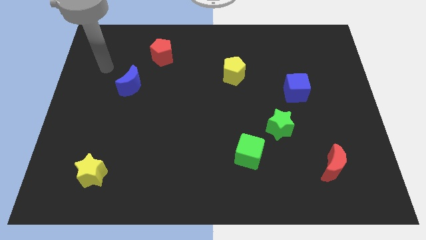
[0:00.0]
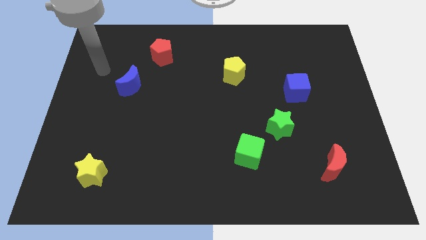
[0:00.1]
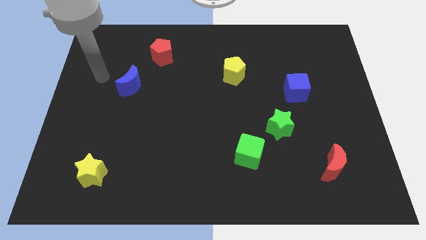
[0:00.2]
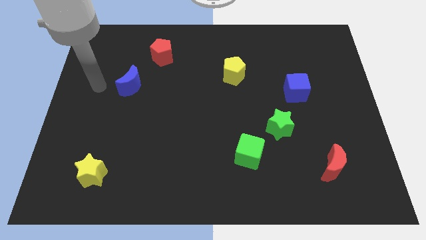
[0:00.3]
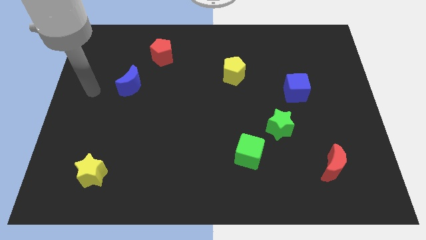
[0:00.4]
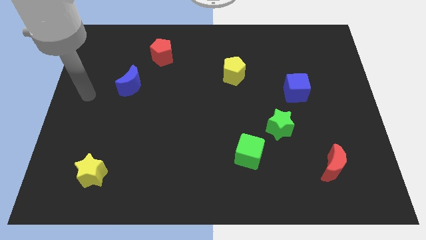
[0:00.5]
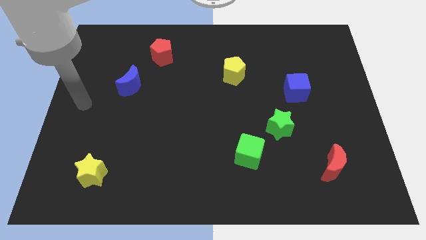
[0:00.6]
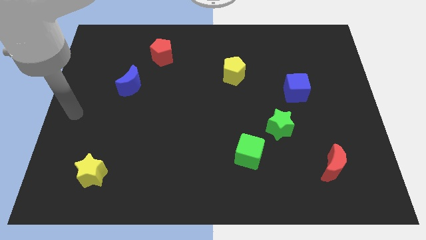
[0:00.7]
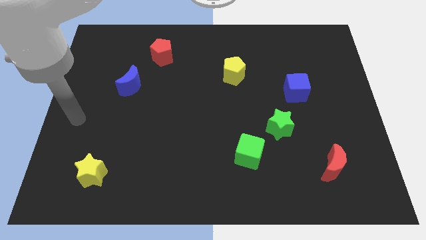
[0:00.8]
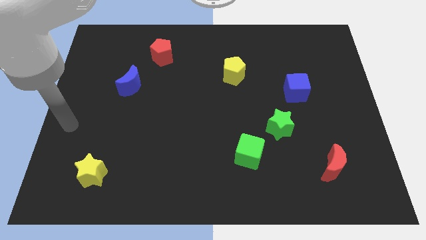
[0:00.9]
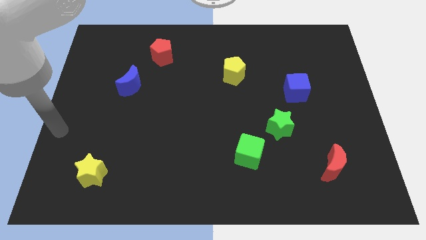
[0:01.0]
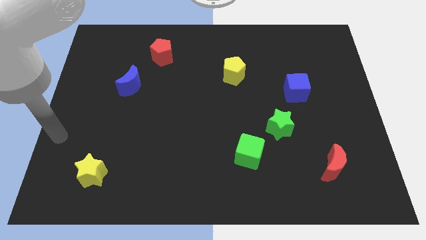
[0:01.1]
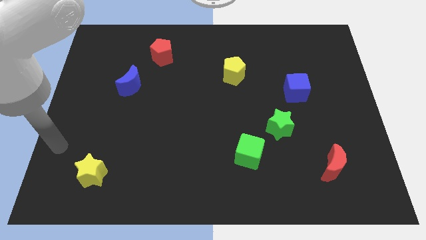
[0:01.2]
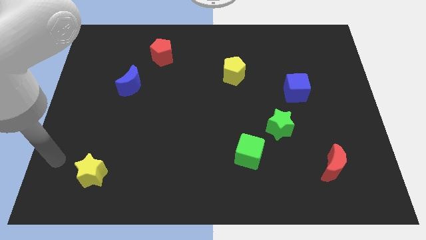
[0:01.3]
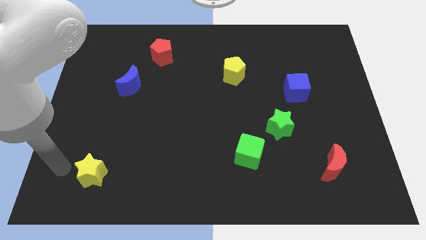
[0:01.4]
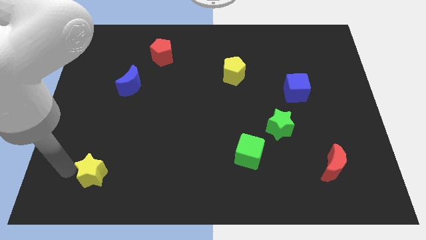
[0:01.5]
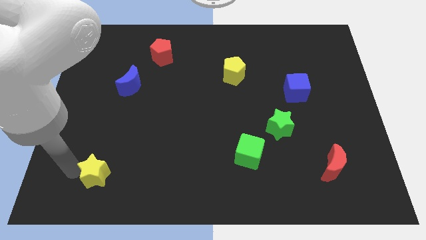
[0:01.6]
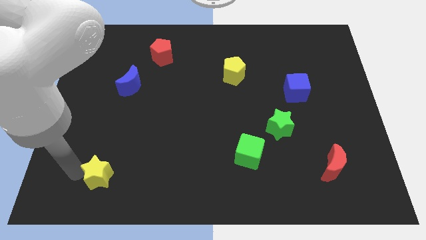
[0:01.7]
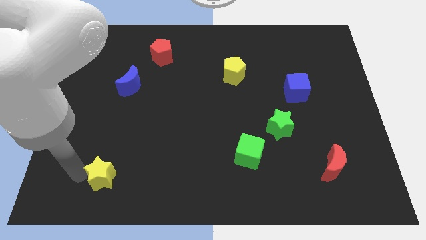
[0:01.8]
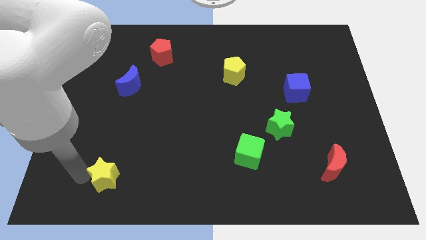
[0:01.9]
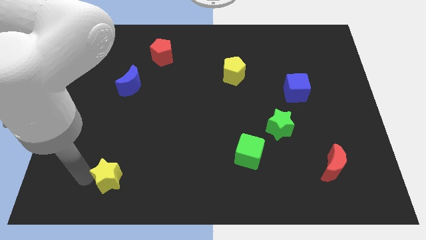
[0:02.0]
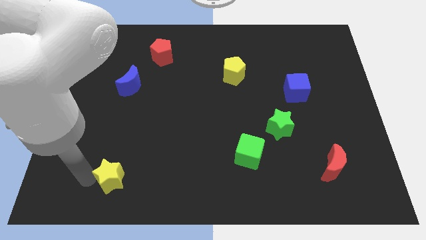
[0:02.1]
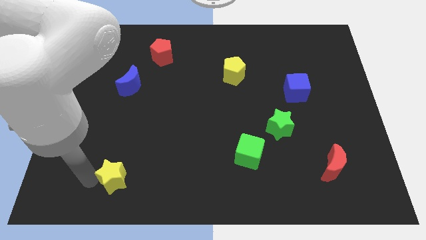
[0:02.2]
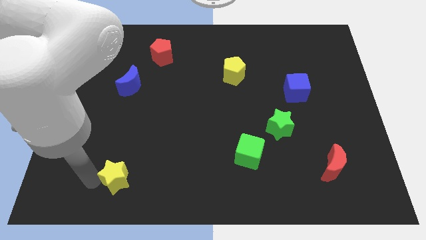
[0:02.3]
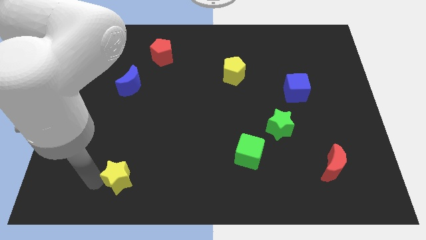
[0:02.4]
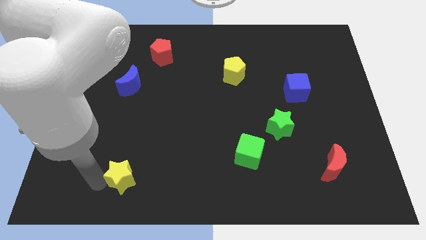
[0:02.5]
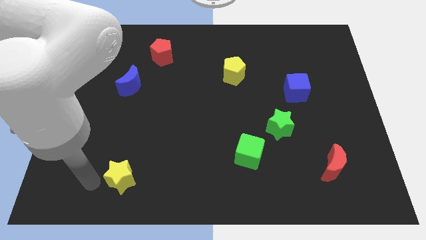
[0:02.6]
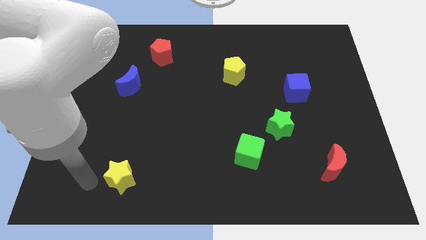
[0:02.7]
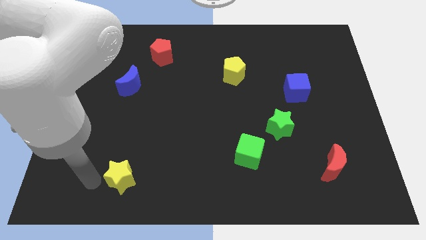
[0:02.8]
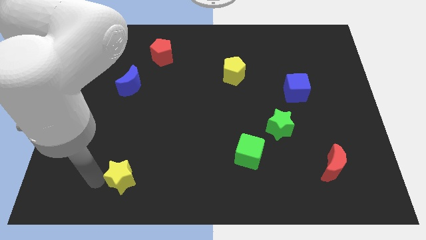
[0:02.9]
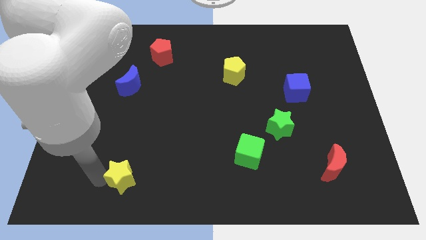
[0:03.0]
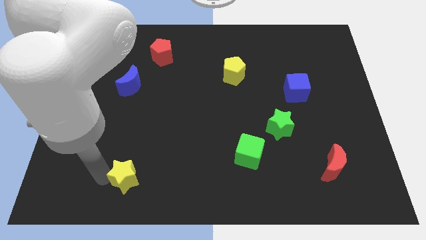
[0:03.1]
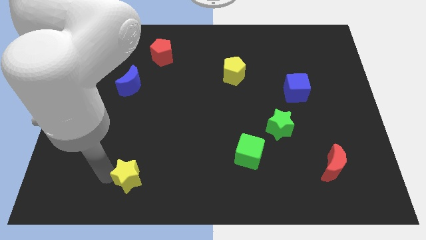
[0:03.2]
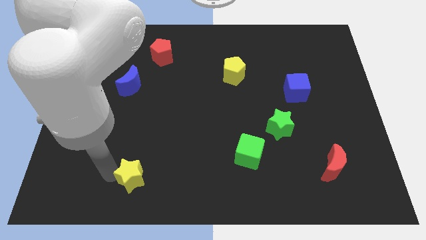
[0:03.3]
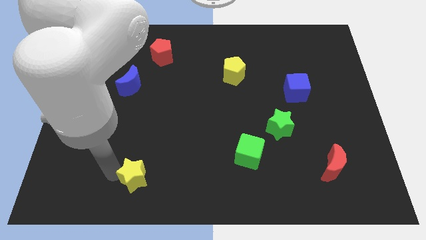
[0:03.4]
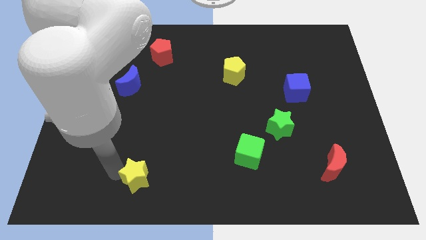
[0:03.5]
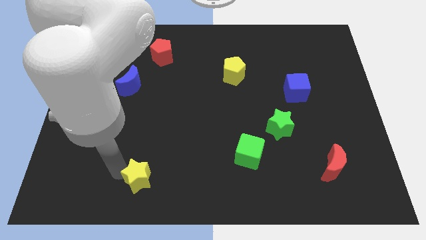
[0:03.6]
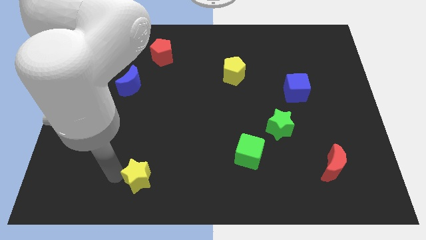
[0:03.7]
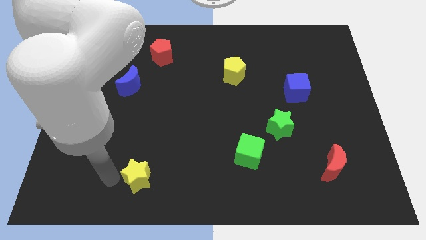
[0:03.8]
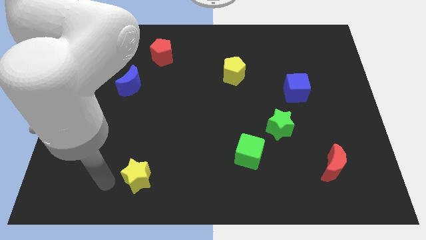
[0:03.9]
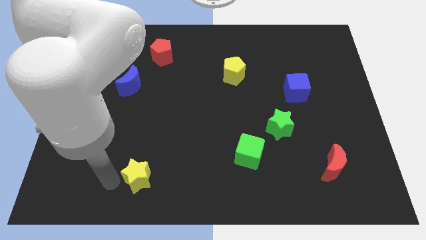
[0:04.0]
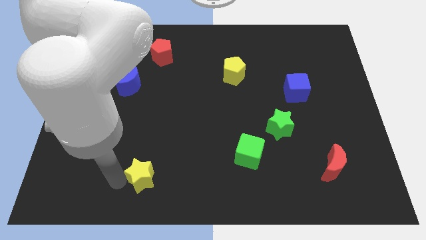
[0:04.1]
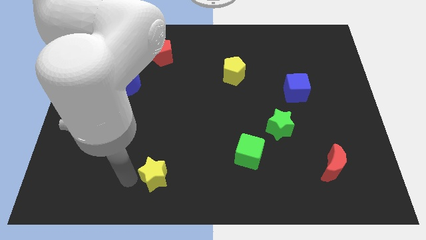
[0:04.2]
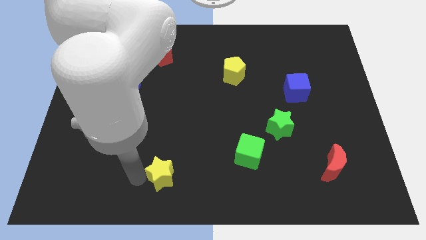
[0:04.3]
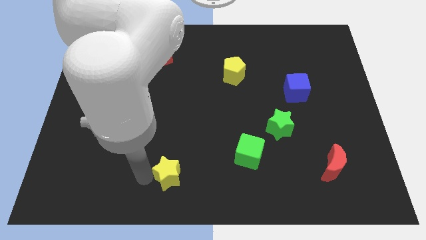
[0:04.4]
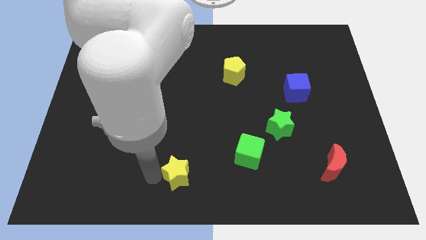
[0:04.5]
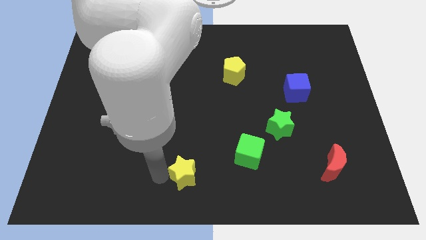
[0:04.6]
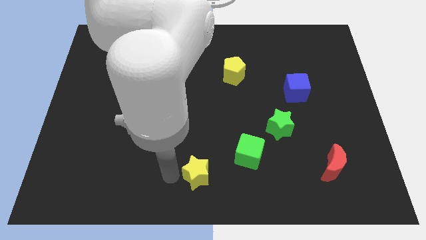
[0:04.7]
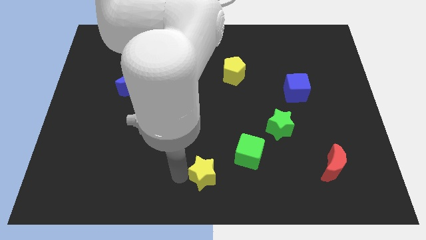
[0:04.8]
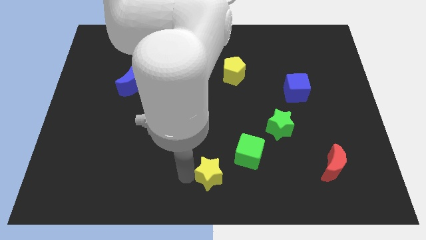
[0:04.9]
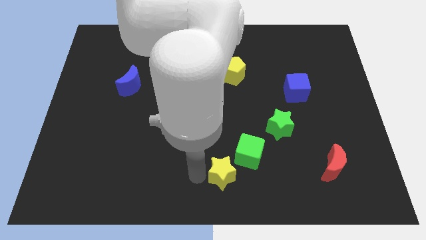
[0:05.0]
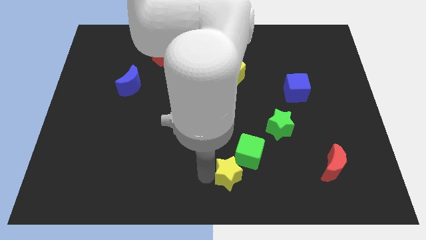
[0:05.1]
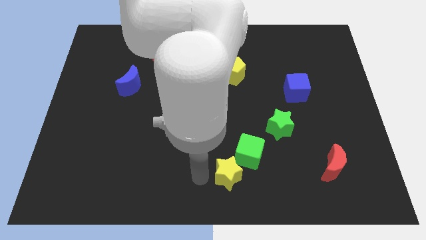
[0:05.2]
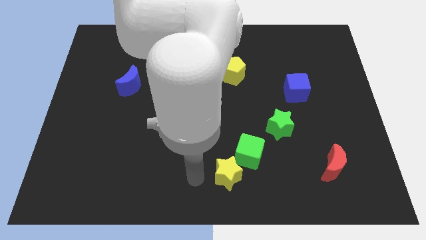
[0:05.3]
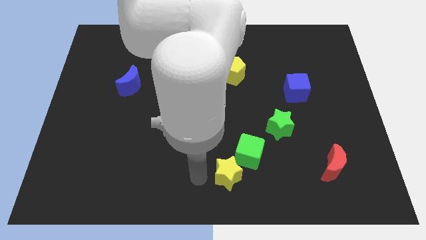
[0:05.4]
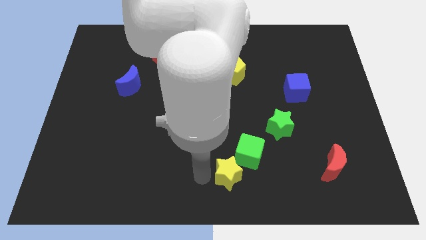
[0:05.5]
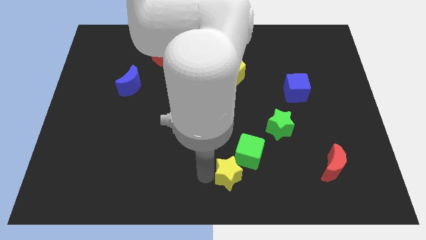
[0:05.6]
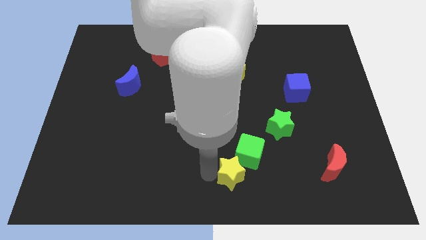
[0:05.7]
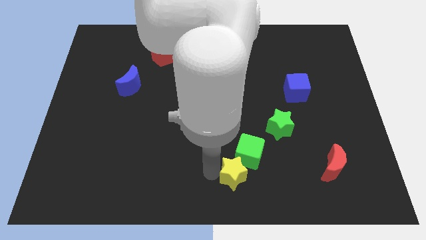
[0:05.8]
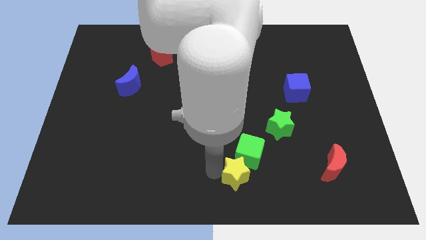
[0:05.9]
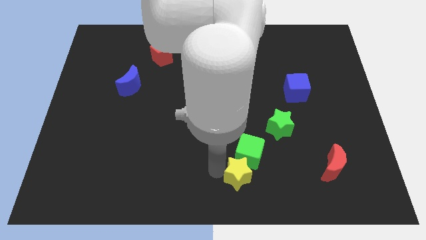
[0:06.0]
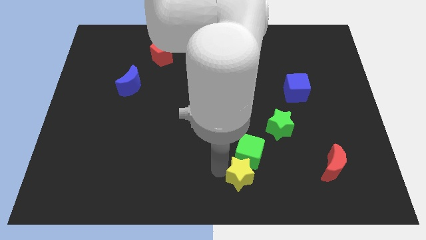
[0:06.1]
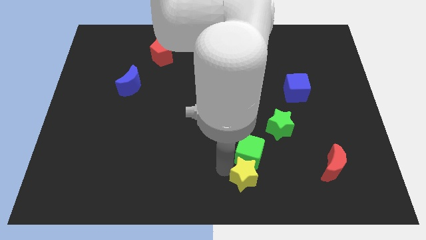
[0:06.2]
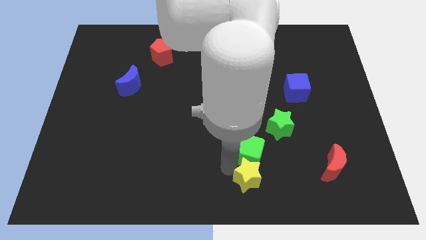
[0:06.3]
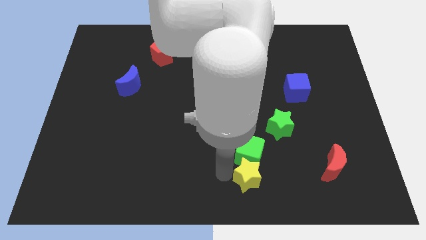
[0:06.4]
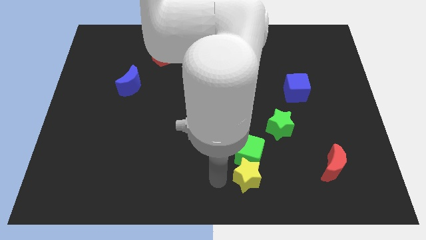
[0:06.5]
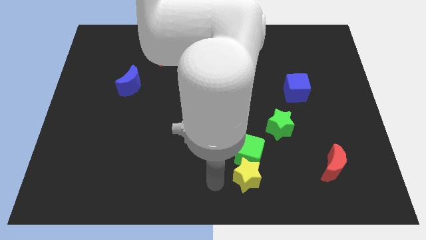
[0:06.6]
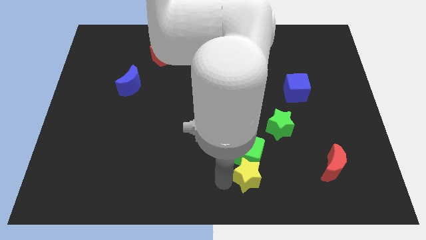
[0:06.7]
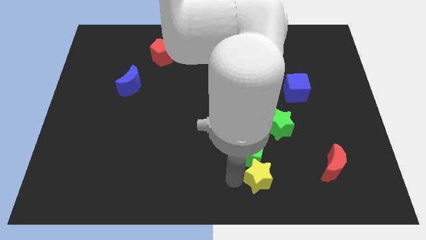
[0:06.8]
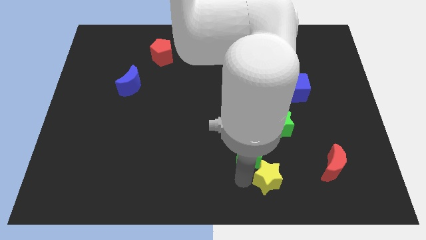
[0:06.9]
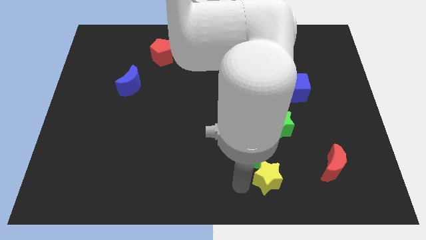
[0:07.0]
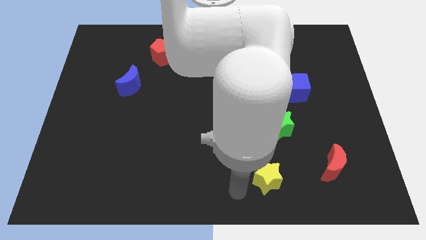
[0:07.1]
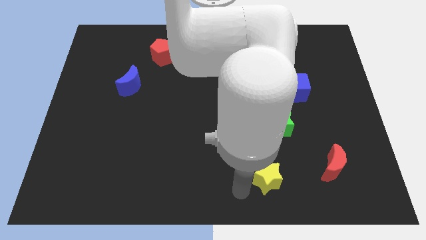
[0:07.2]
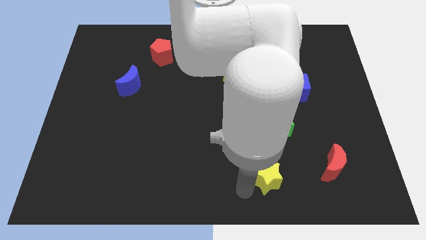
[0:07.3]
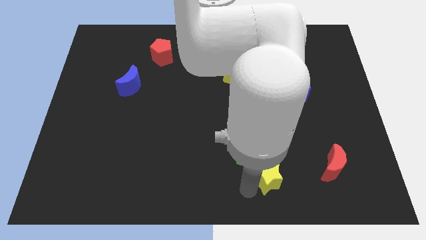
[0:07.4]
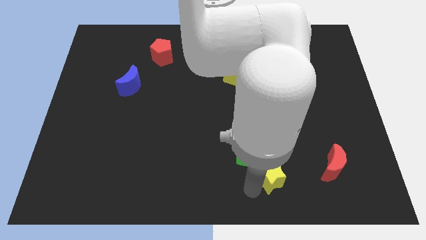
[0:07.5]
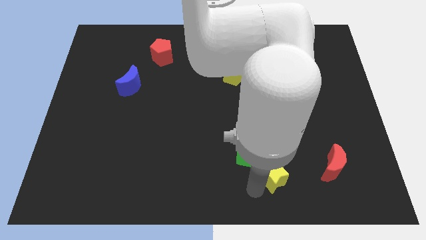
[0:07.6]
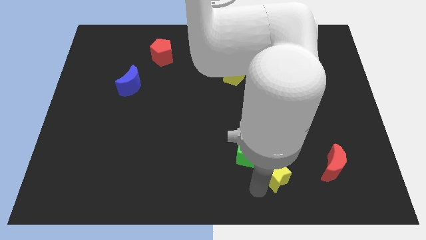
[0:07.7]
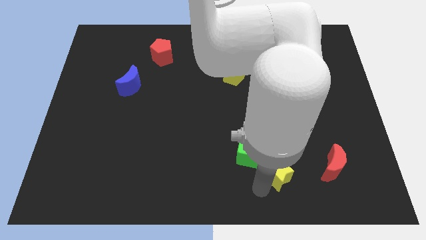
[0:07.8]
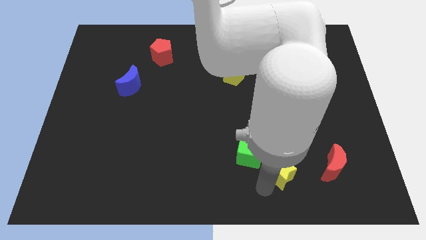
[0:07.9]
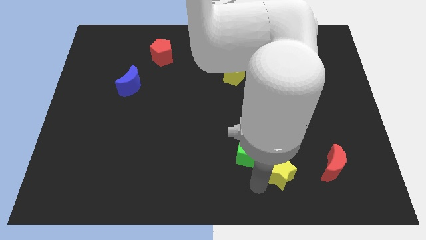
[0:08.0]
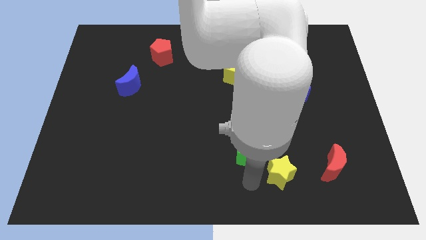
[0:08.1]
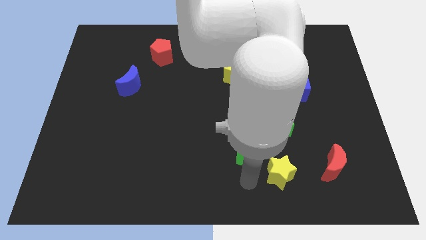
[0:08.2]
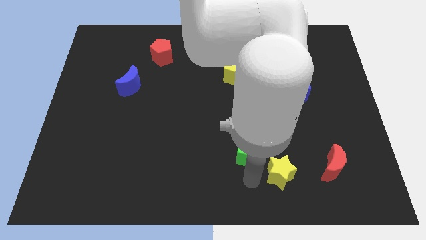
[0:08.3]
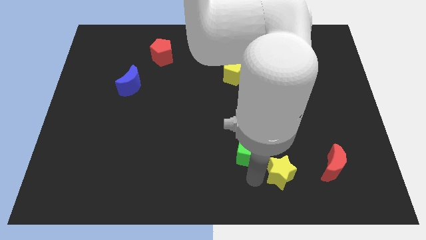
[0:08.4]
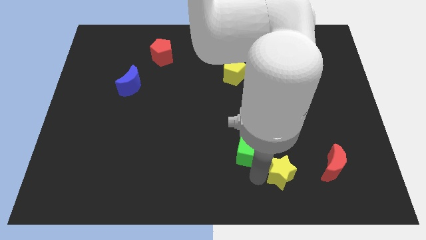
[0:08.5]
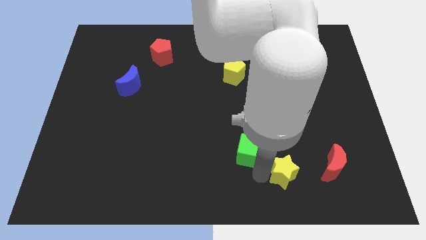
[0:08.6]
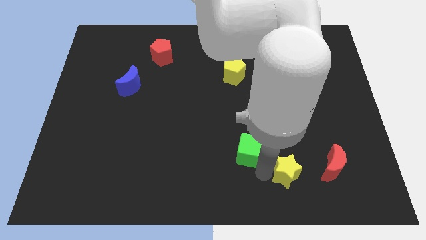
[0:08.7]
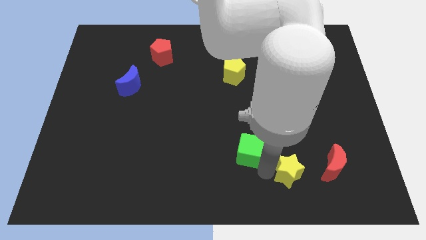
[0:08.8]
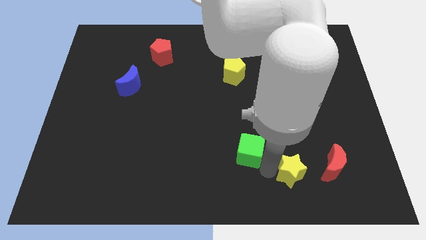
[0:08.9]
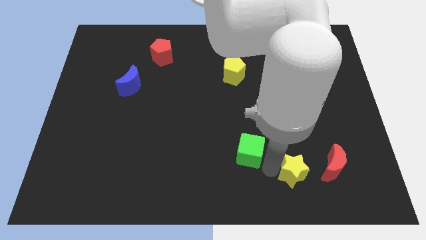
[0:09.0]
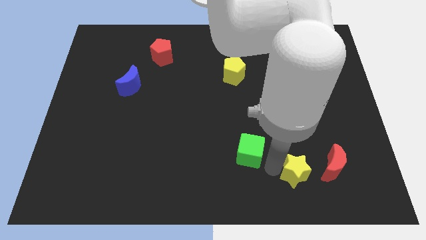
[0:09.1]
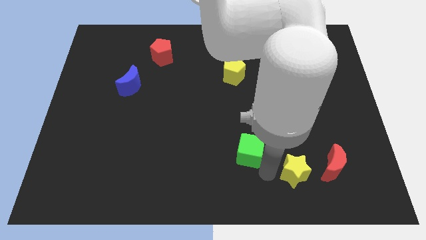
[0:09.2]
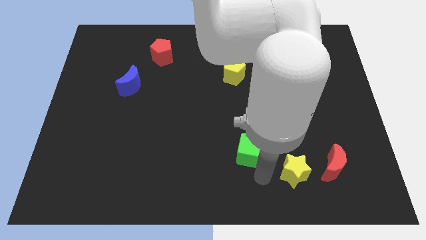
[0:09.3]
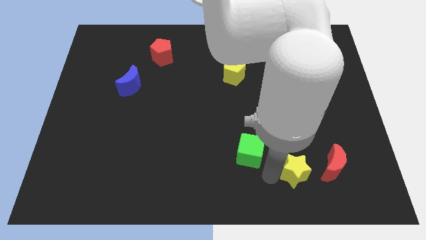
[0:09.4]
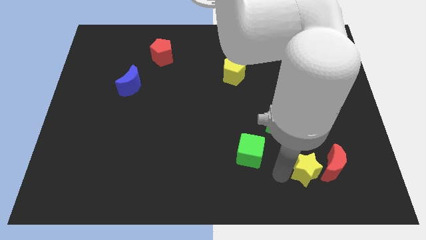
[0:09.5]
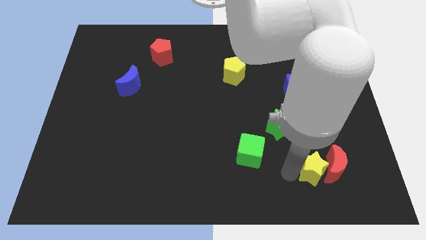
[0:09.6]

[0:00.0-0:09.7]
put the yellow star to the red moon
